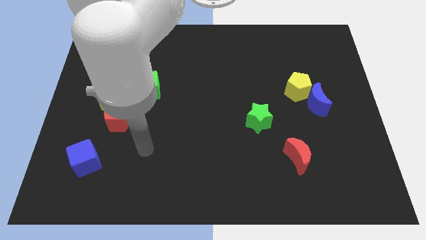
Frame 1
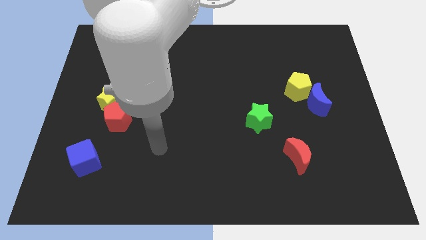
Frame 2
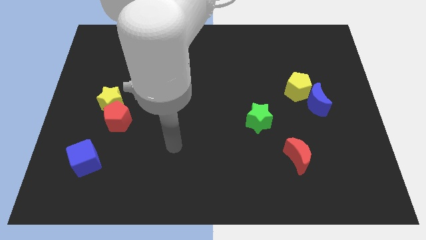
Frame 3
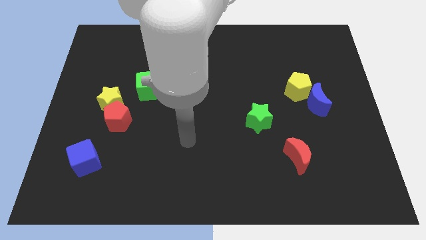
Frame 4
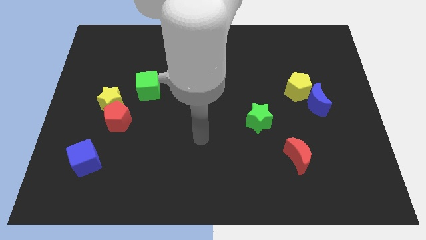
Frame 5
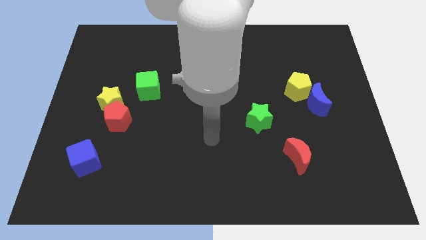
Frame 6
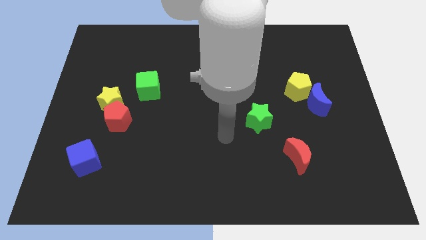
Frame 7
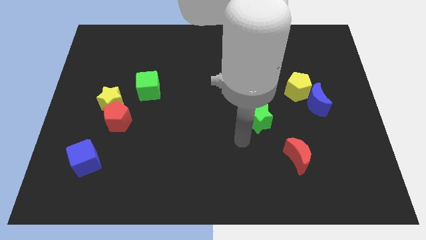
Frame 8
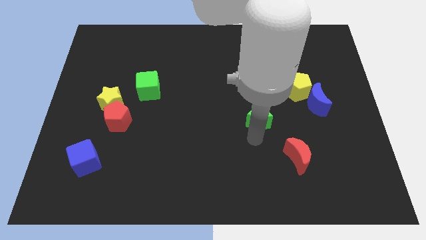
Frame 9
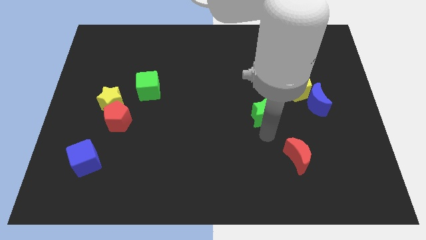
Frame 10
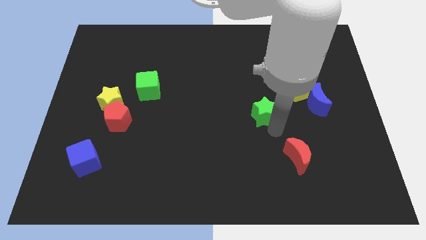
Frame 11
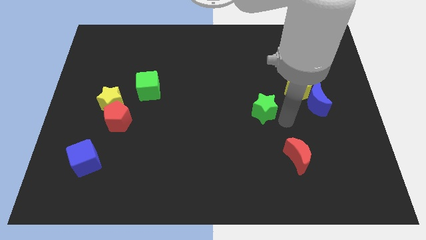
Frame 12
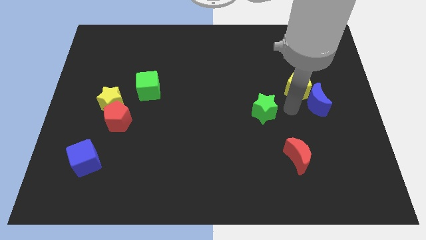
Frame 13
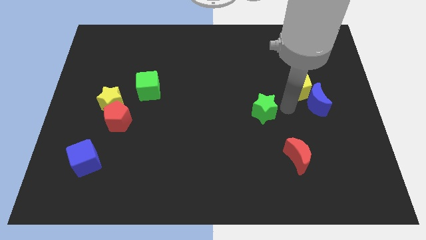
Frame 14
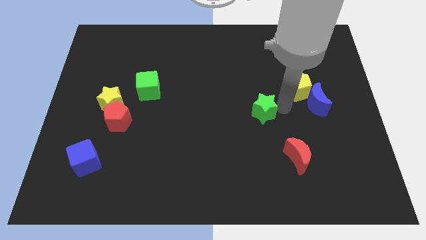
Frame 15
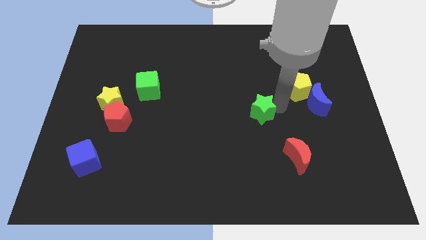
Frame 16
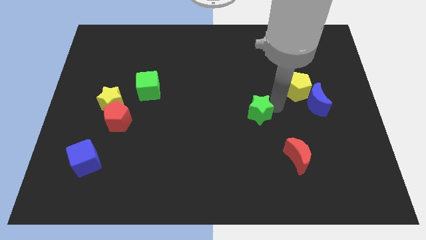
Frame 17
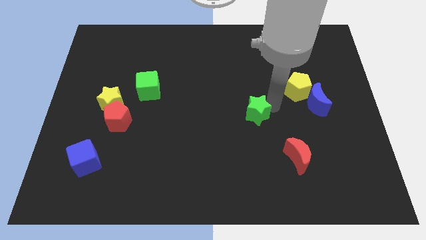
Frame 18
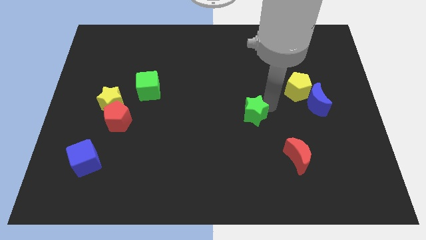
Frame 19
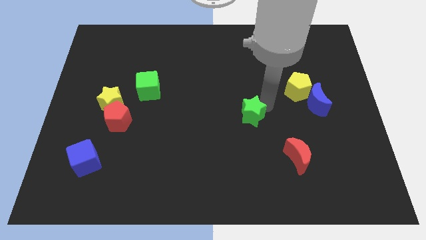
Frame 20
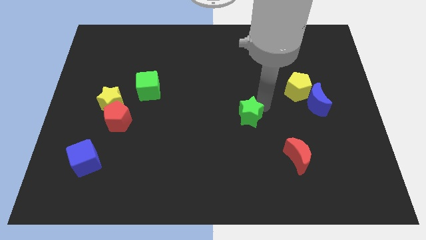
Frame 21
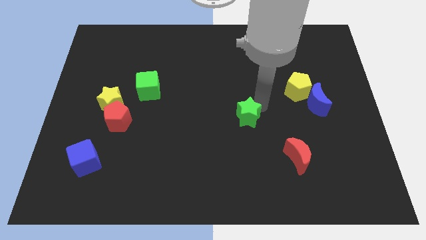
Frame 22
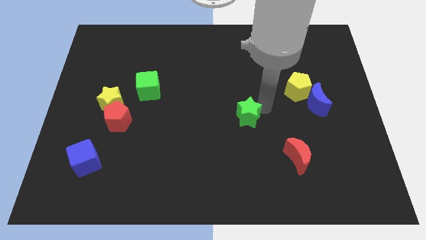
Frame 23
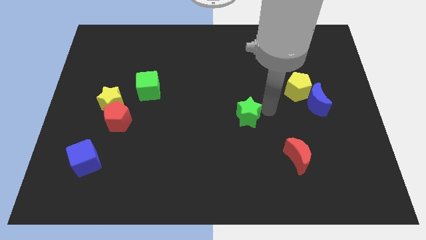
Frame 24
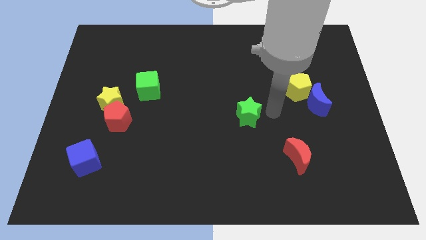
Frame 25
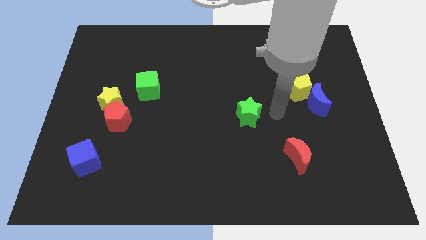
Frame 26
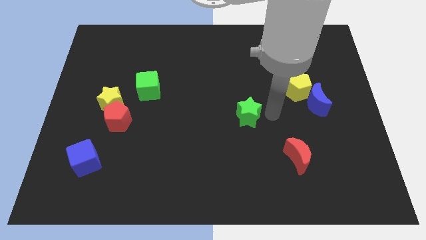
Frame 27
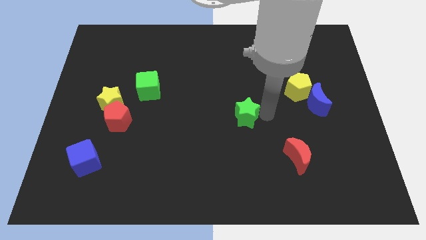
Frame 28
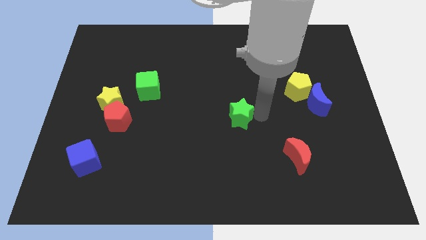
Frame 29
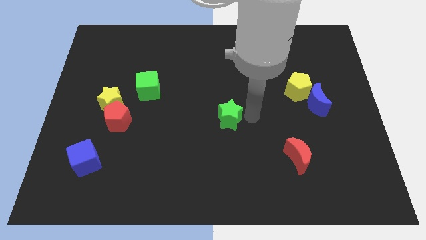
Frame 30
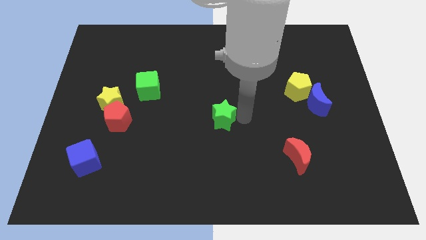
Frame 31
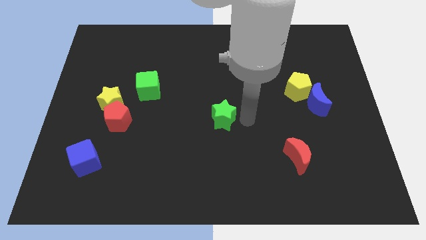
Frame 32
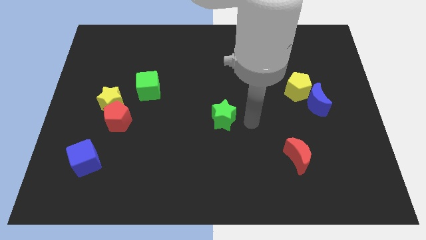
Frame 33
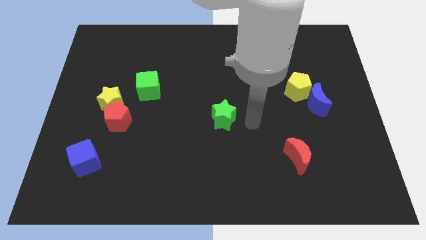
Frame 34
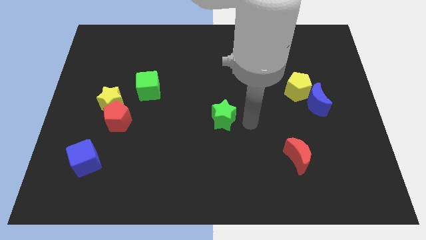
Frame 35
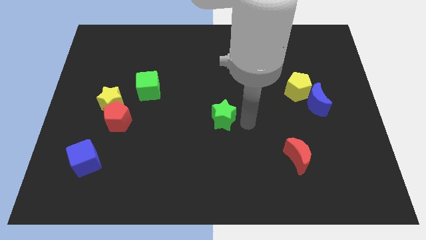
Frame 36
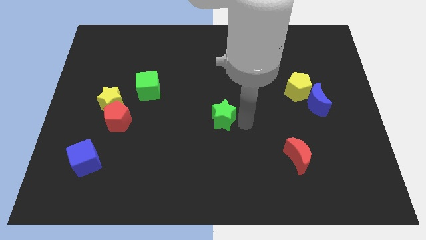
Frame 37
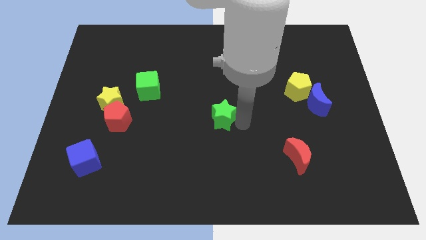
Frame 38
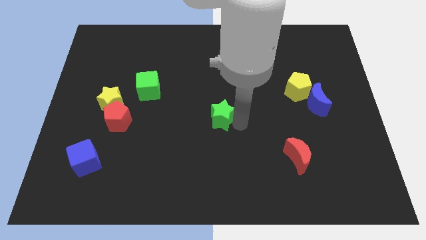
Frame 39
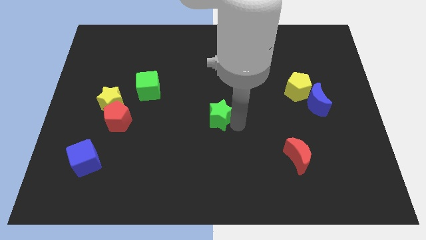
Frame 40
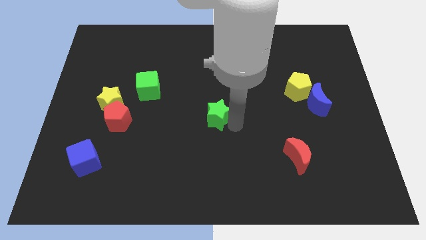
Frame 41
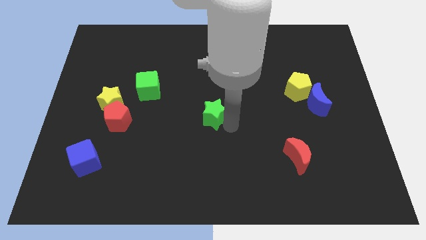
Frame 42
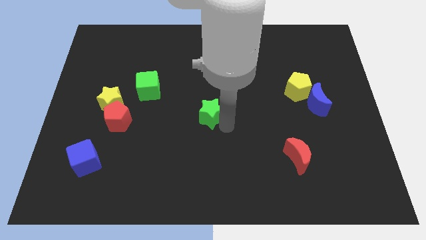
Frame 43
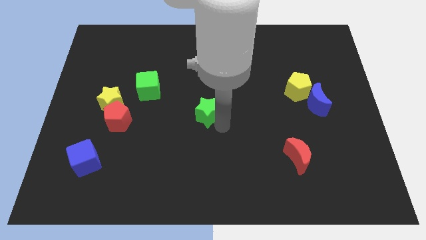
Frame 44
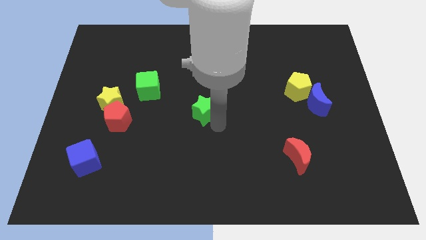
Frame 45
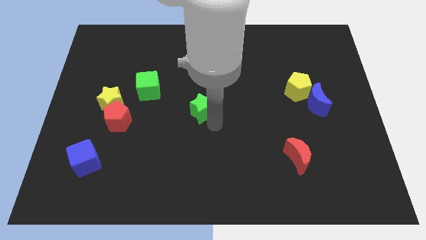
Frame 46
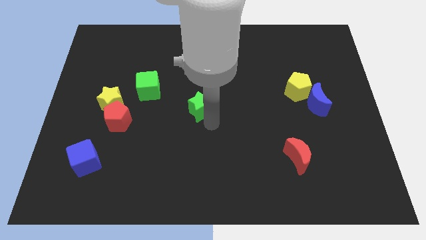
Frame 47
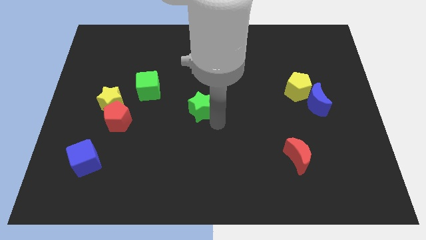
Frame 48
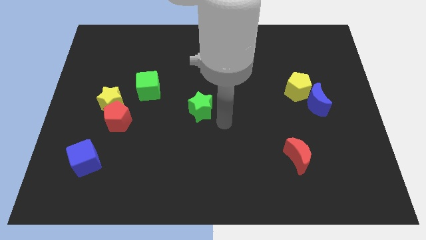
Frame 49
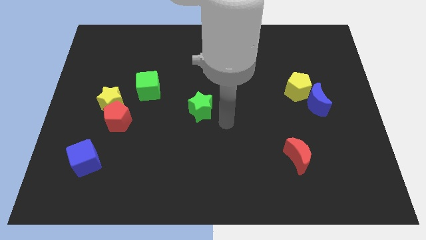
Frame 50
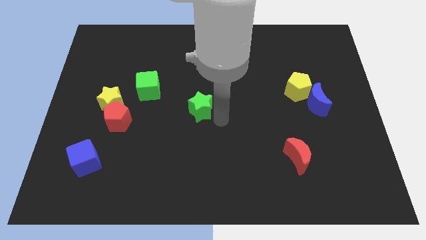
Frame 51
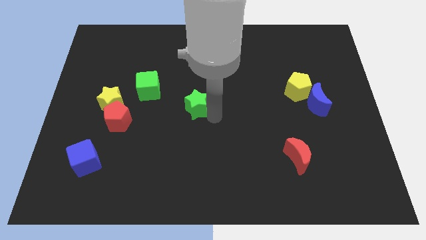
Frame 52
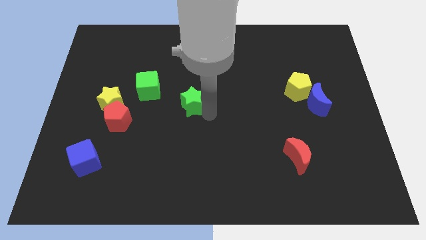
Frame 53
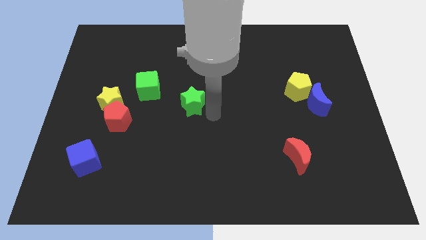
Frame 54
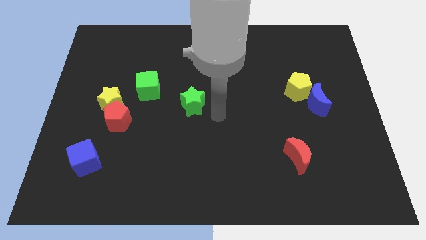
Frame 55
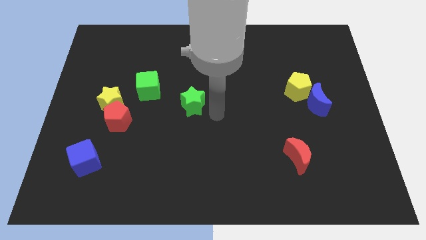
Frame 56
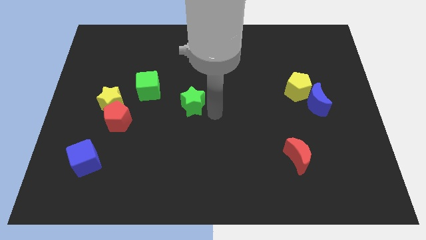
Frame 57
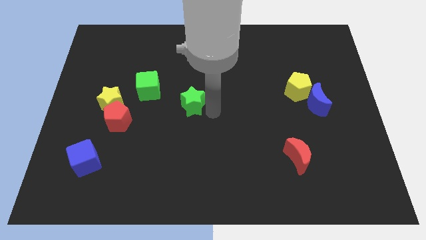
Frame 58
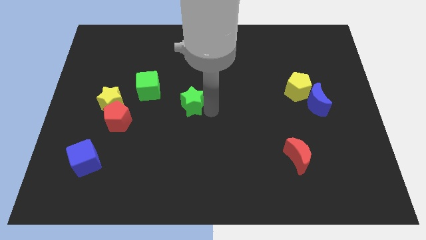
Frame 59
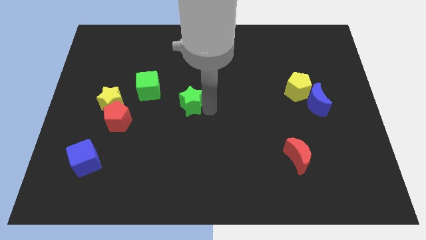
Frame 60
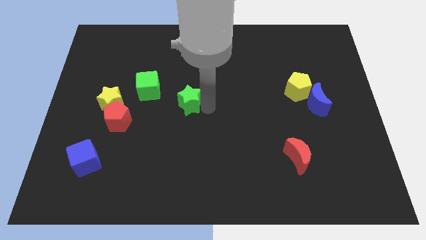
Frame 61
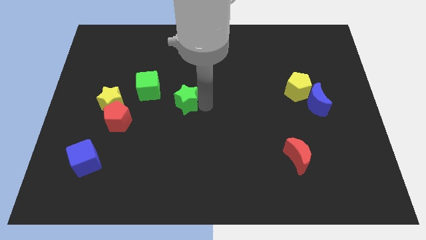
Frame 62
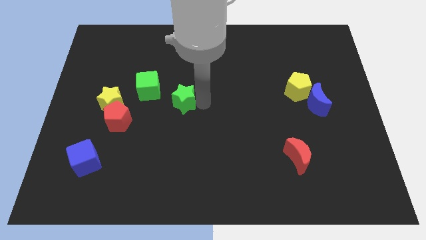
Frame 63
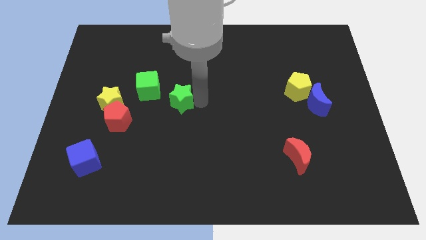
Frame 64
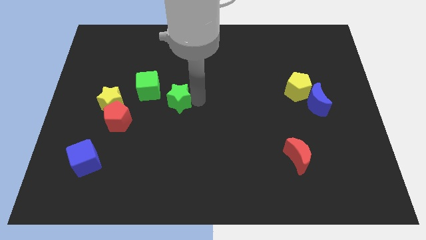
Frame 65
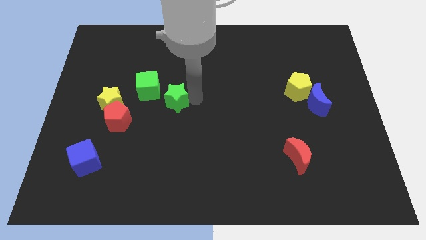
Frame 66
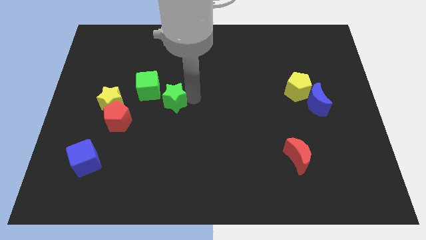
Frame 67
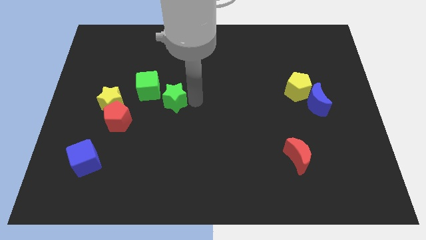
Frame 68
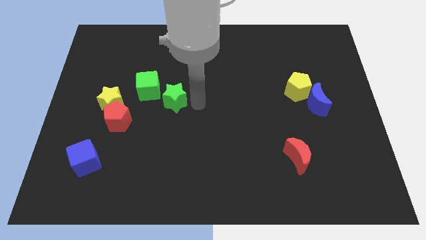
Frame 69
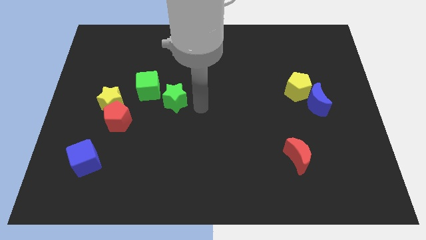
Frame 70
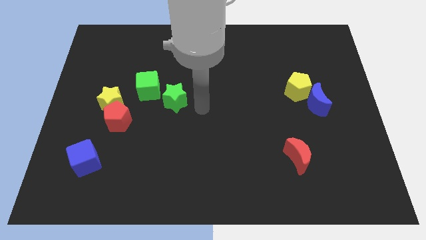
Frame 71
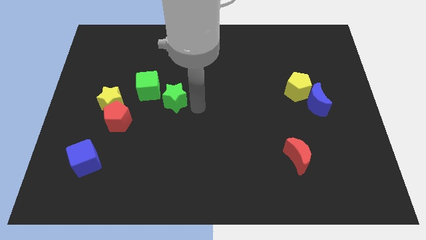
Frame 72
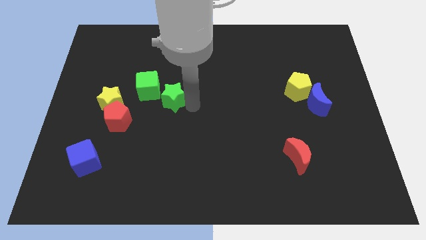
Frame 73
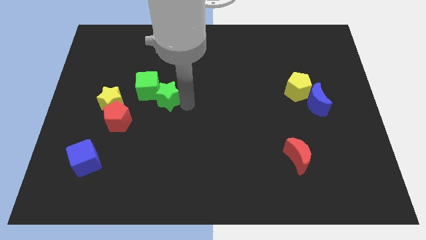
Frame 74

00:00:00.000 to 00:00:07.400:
put the green star next to the green cube

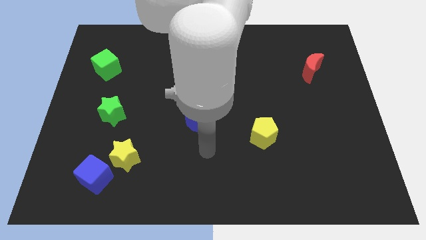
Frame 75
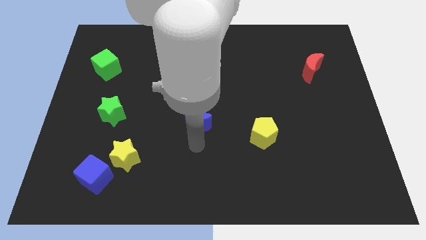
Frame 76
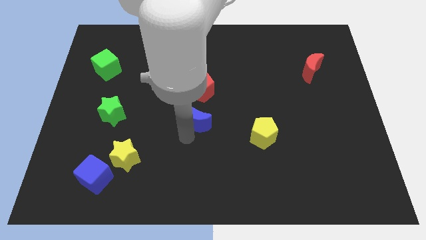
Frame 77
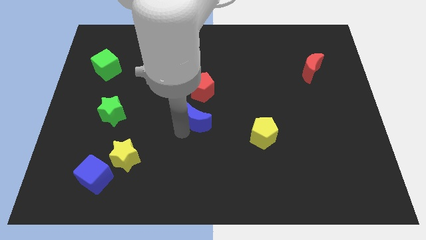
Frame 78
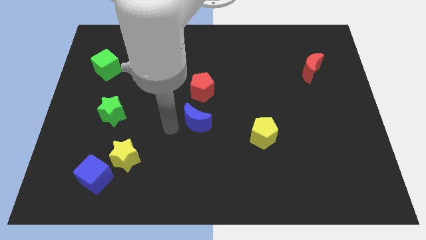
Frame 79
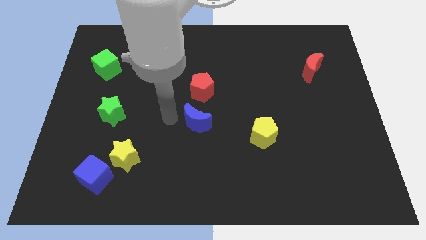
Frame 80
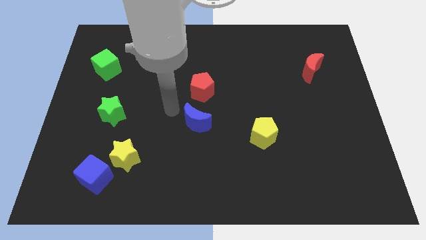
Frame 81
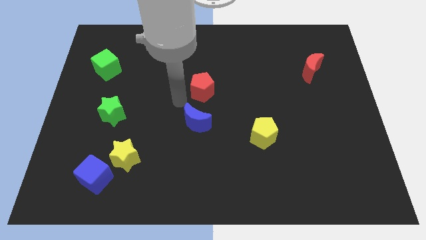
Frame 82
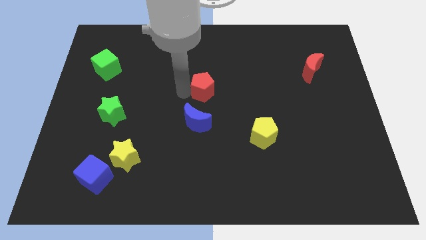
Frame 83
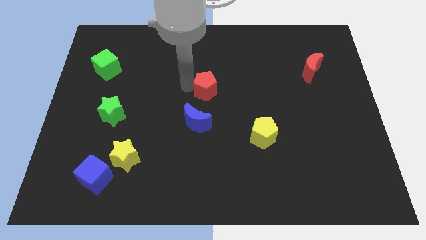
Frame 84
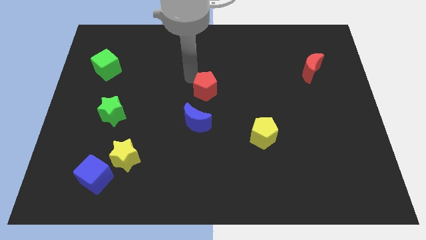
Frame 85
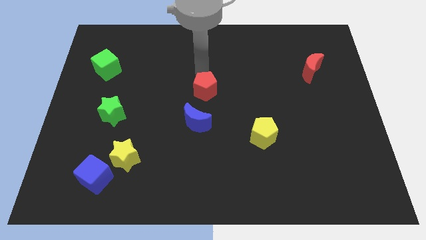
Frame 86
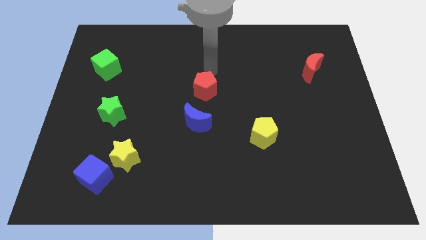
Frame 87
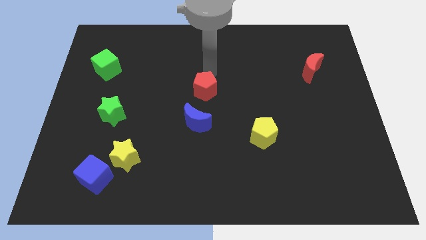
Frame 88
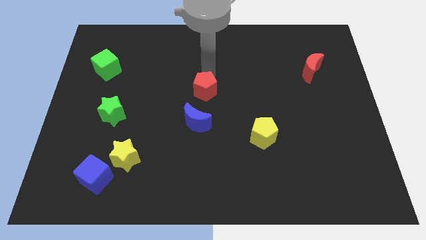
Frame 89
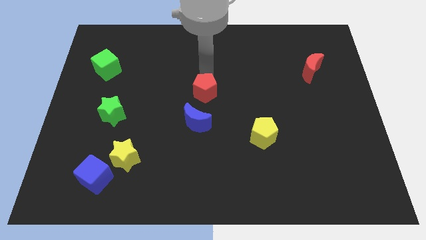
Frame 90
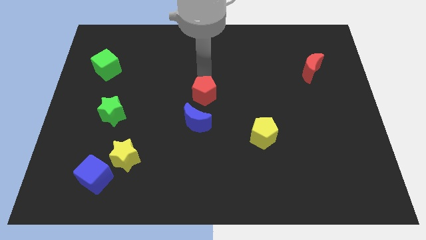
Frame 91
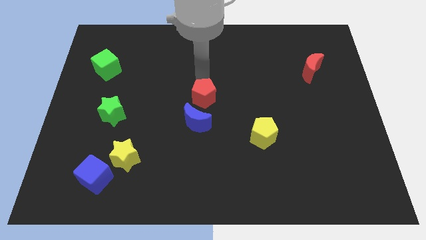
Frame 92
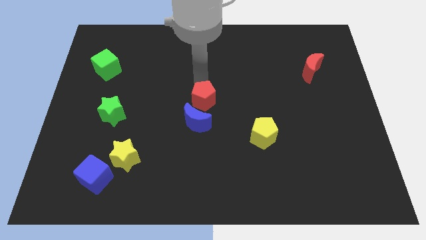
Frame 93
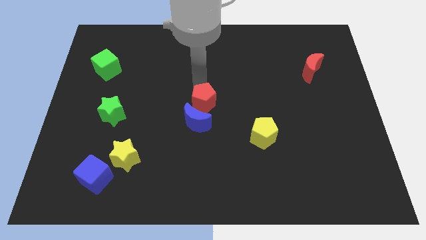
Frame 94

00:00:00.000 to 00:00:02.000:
move the red pentagon close to the blue moon
